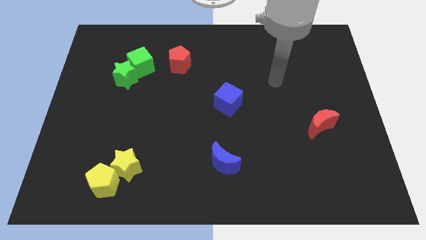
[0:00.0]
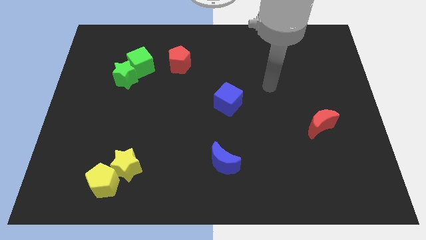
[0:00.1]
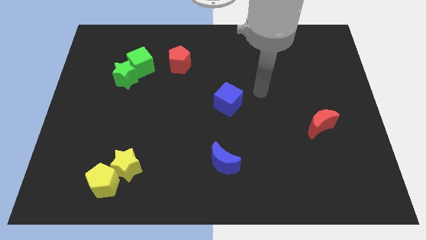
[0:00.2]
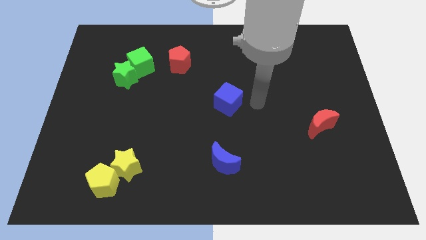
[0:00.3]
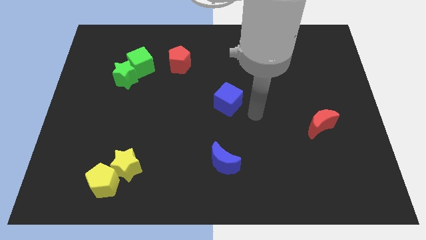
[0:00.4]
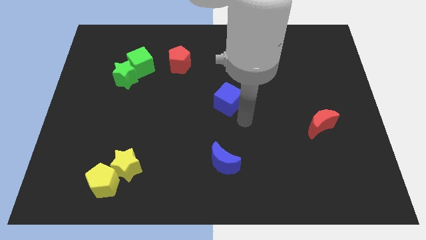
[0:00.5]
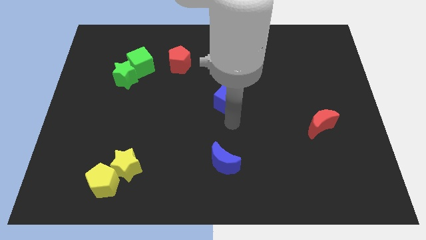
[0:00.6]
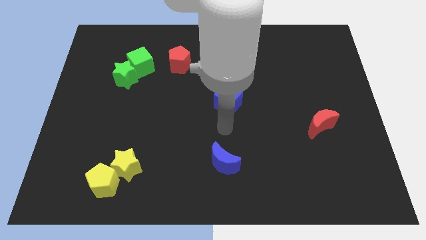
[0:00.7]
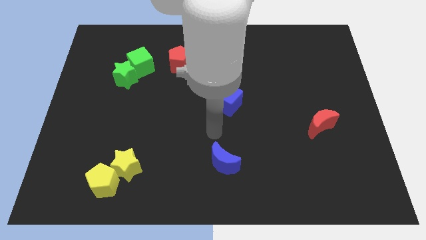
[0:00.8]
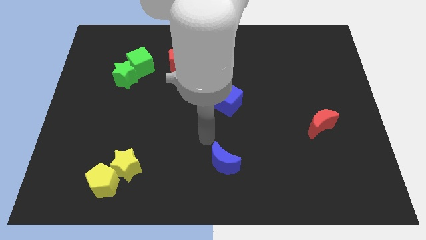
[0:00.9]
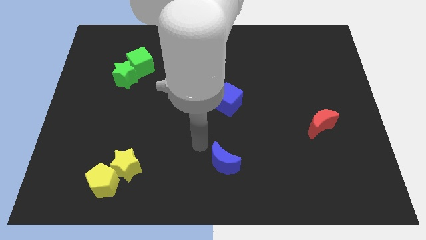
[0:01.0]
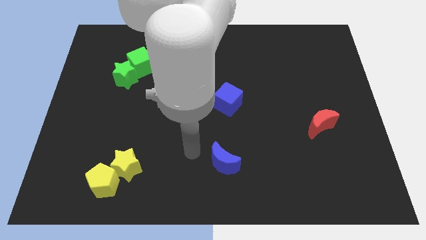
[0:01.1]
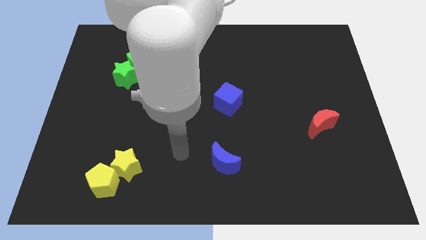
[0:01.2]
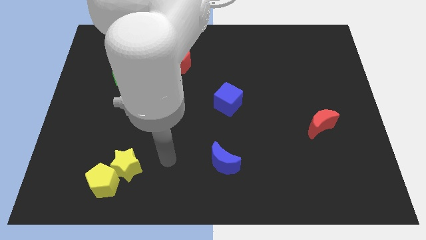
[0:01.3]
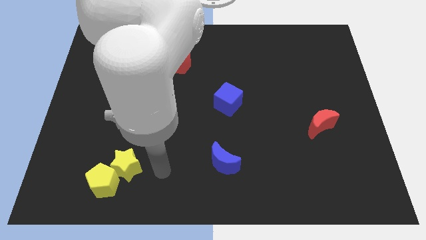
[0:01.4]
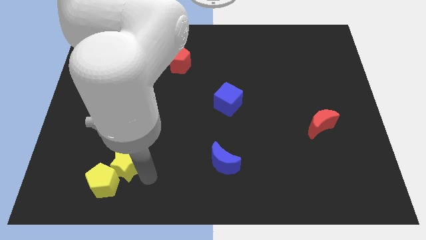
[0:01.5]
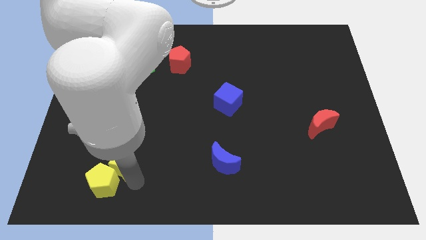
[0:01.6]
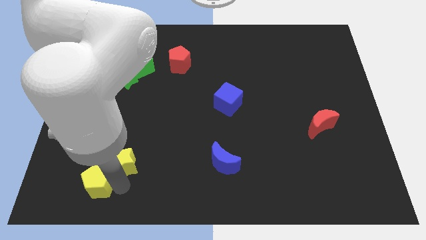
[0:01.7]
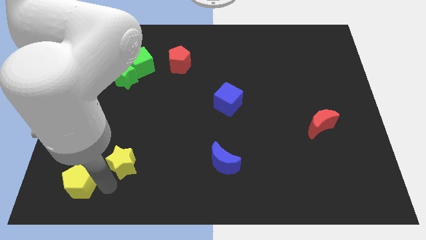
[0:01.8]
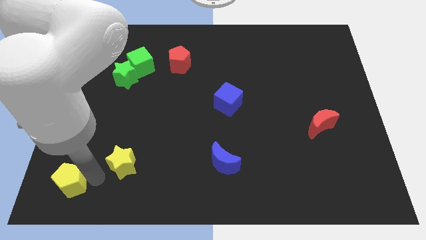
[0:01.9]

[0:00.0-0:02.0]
move the yellow star away from the yellow pentagon

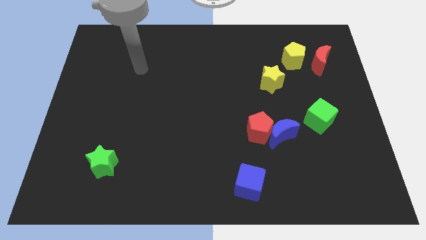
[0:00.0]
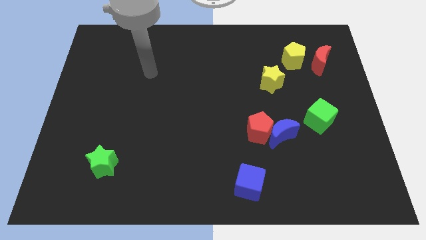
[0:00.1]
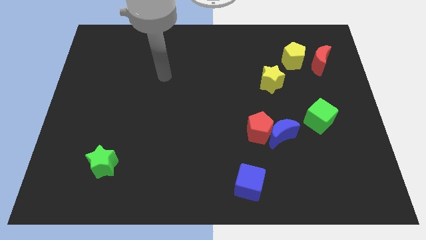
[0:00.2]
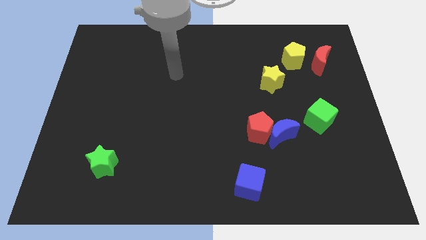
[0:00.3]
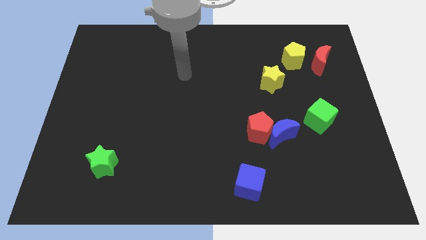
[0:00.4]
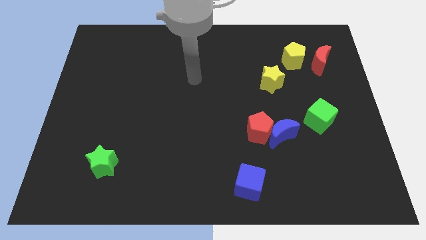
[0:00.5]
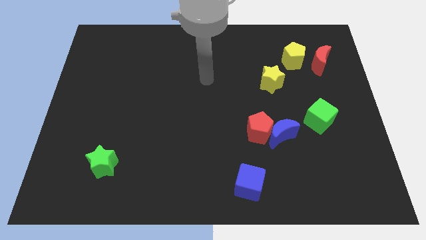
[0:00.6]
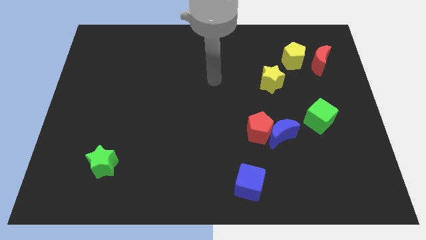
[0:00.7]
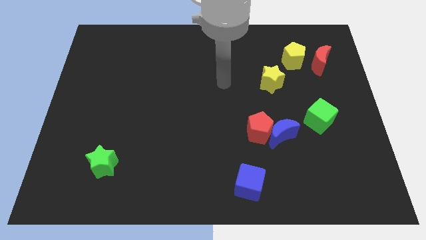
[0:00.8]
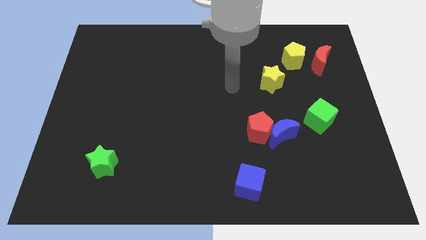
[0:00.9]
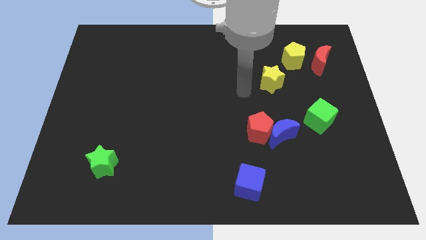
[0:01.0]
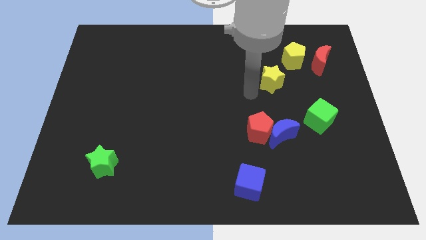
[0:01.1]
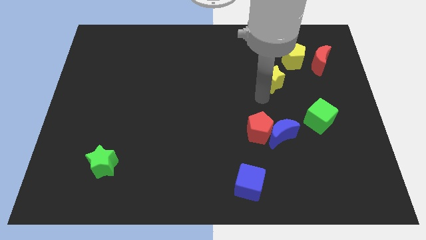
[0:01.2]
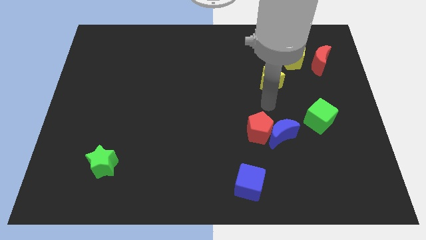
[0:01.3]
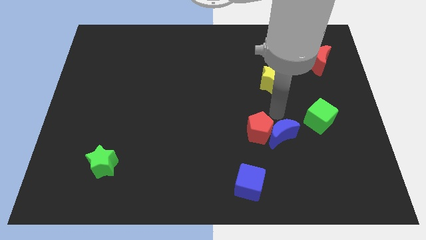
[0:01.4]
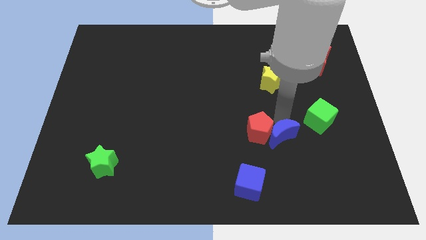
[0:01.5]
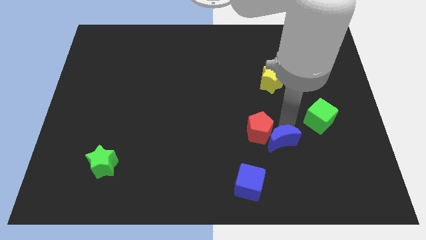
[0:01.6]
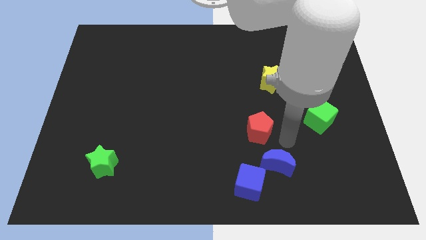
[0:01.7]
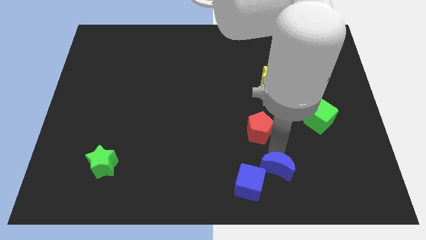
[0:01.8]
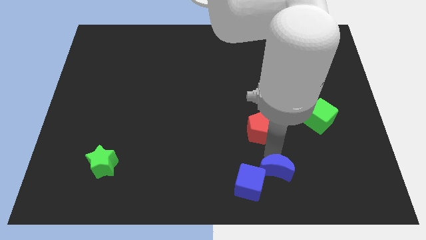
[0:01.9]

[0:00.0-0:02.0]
move the red pentagon away from the blue moon

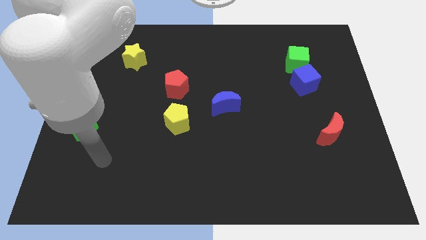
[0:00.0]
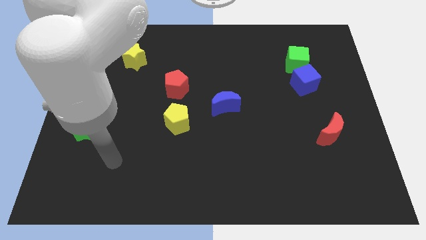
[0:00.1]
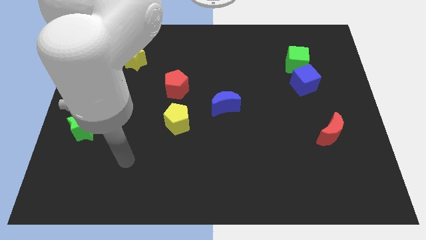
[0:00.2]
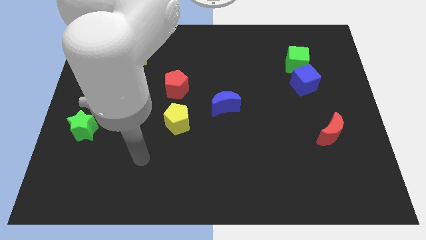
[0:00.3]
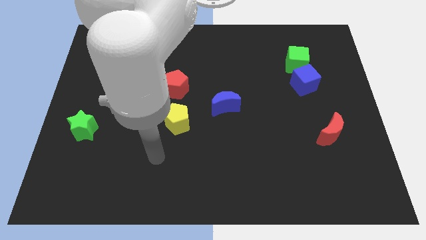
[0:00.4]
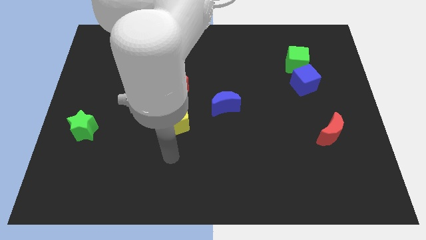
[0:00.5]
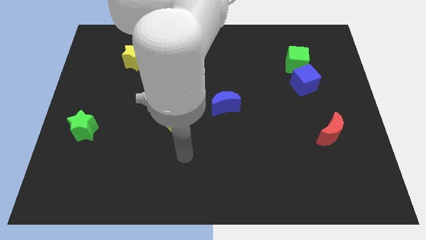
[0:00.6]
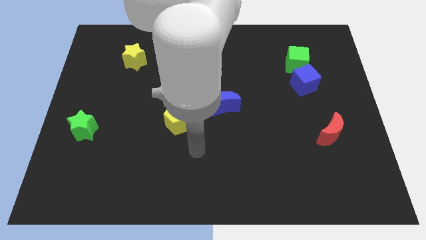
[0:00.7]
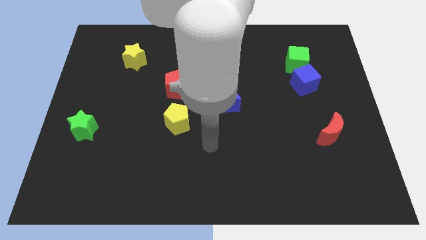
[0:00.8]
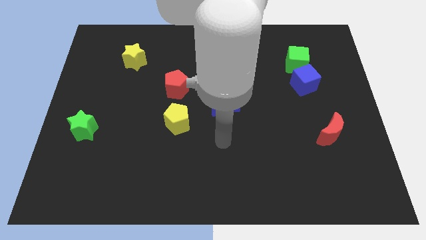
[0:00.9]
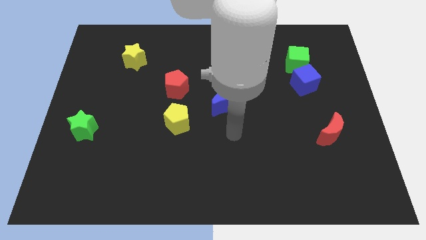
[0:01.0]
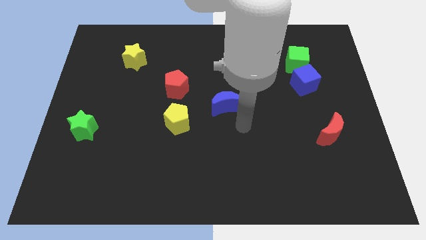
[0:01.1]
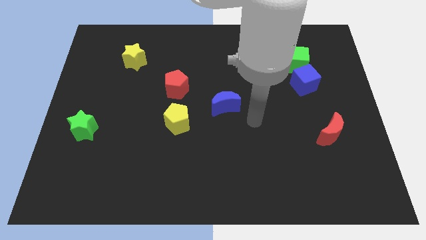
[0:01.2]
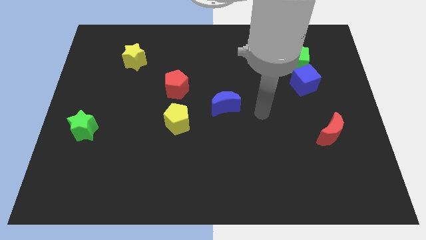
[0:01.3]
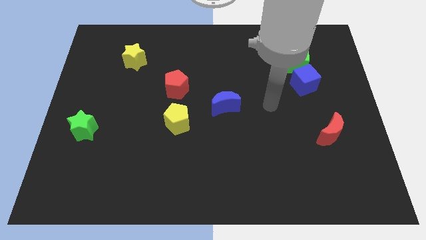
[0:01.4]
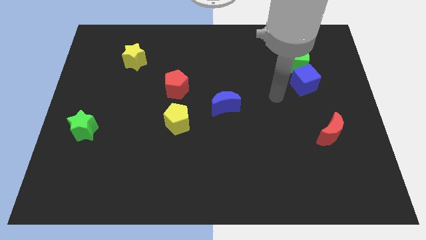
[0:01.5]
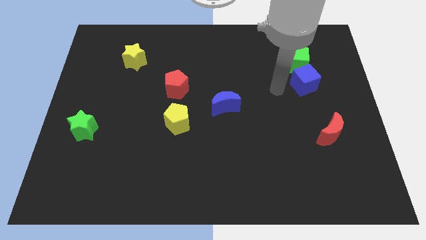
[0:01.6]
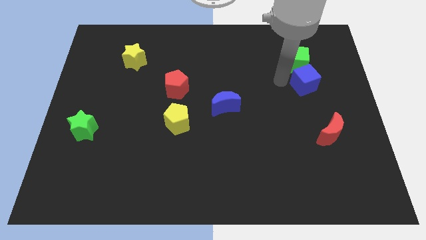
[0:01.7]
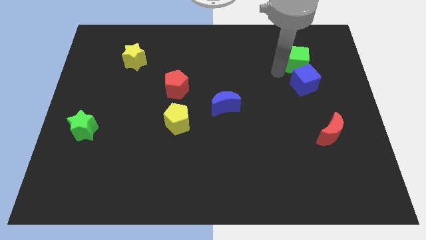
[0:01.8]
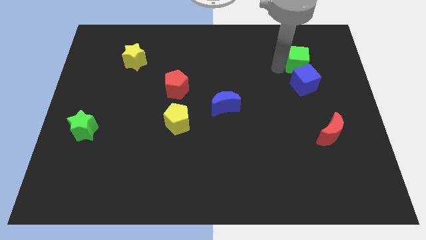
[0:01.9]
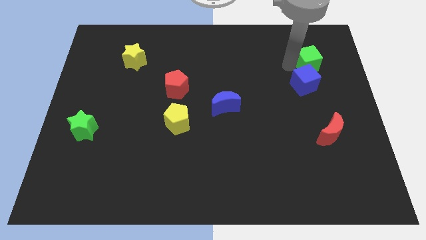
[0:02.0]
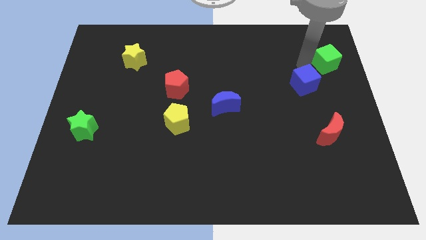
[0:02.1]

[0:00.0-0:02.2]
pull the blue cube apart from the green cube

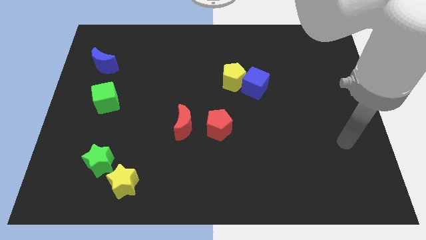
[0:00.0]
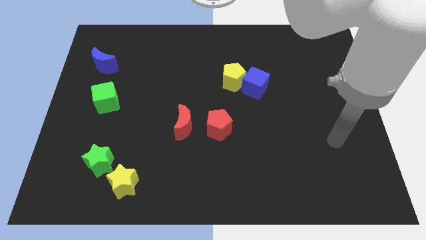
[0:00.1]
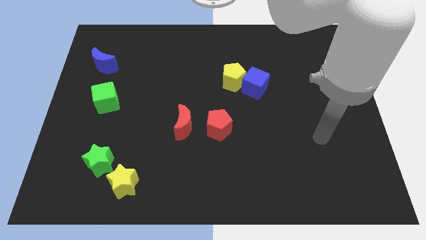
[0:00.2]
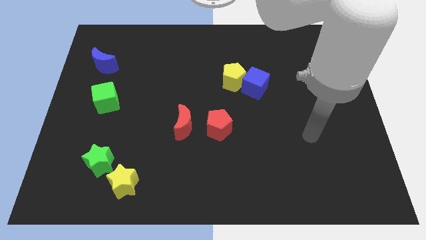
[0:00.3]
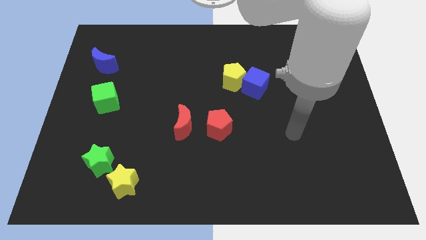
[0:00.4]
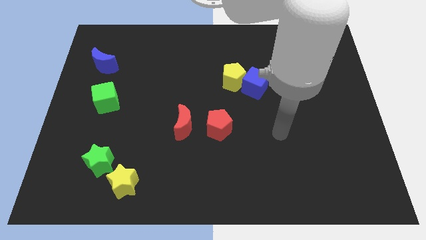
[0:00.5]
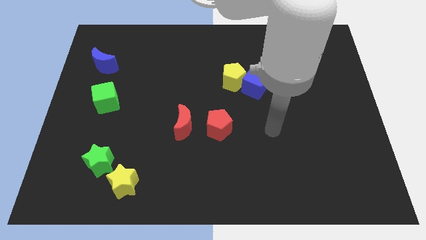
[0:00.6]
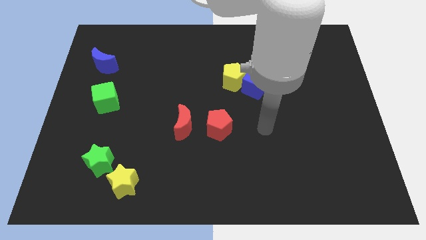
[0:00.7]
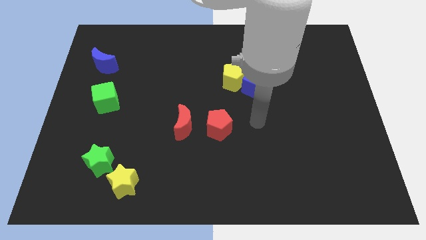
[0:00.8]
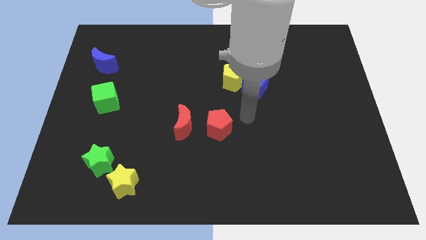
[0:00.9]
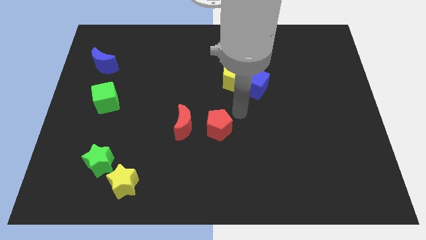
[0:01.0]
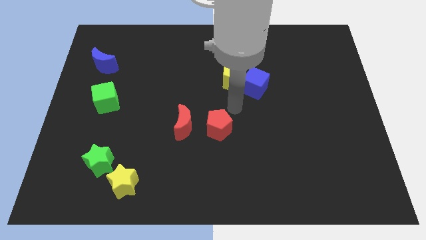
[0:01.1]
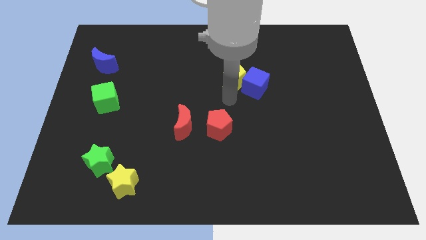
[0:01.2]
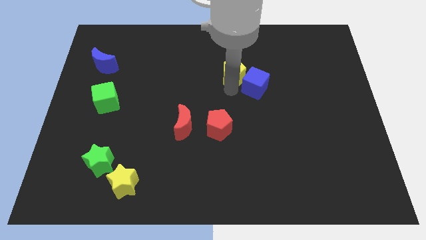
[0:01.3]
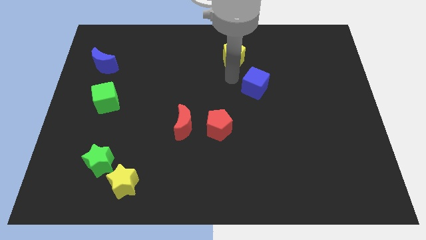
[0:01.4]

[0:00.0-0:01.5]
separate the blue cube from the yellow pentagon

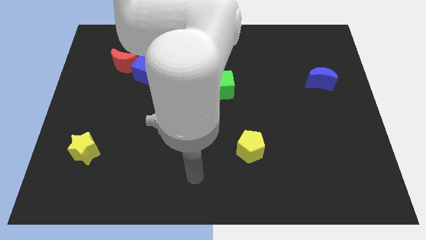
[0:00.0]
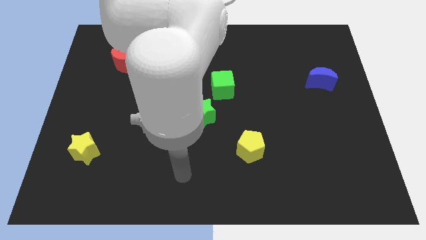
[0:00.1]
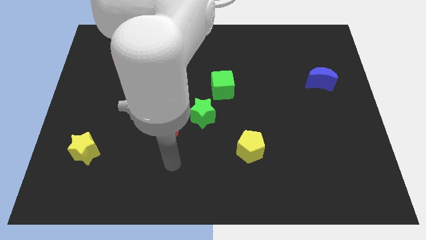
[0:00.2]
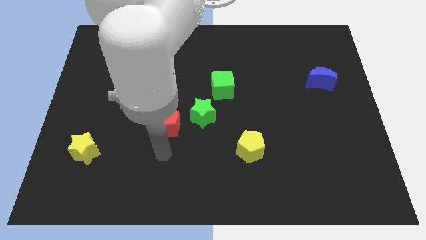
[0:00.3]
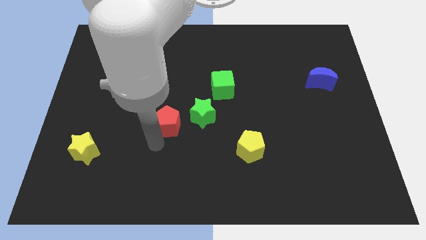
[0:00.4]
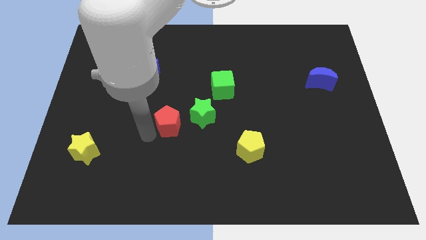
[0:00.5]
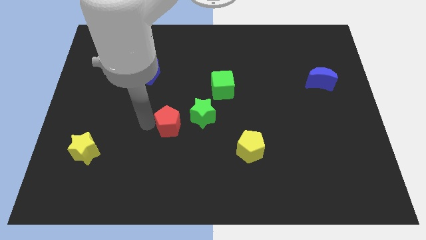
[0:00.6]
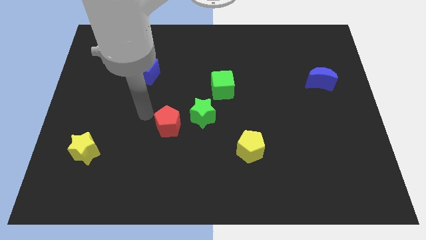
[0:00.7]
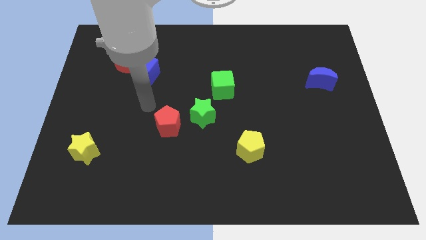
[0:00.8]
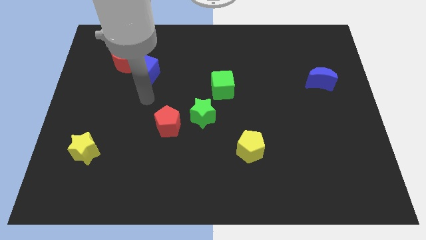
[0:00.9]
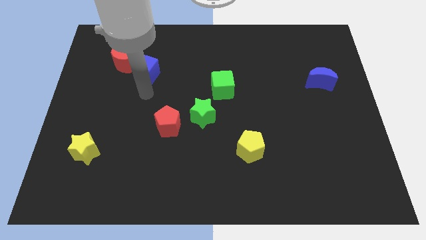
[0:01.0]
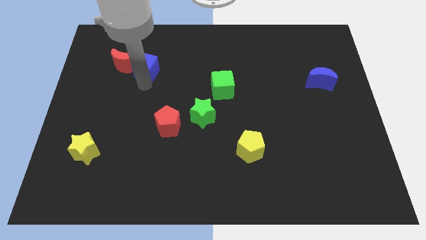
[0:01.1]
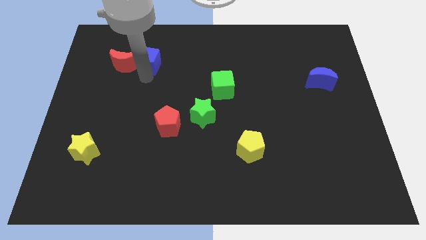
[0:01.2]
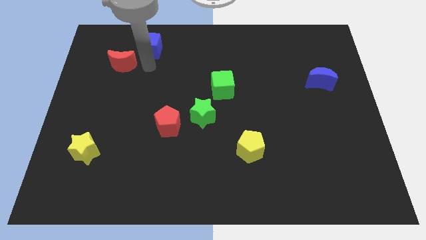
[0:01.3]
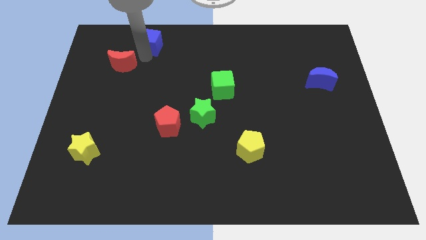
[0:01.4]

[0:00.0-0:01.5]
separate the red moon from the blue cube

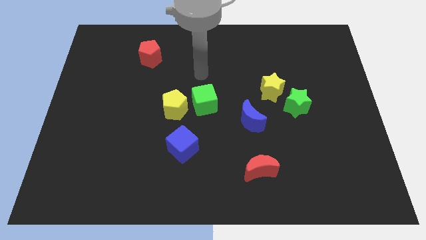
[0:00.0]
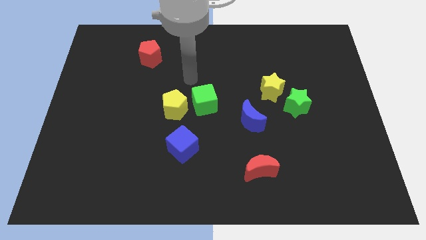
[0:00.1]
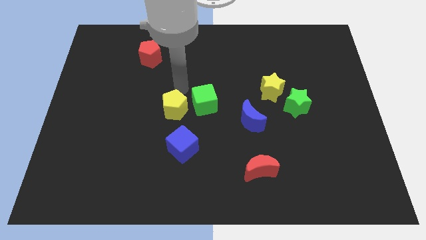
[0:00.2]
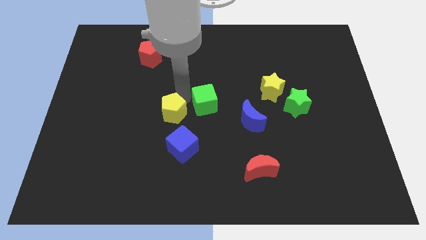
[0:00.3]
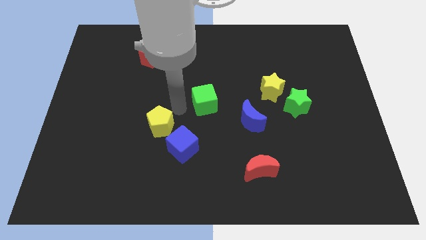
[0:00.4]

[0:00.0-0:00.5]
pull the green cube apart from the yellow pentagon
